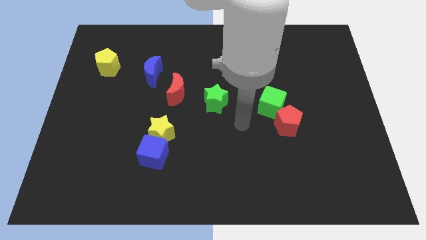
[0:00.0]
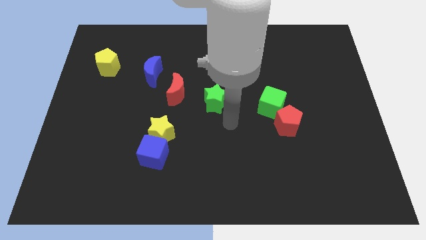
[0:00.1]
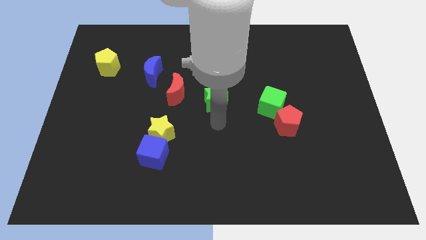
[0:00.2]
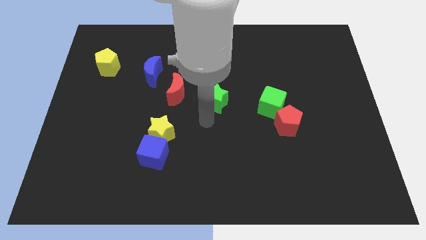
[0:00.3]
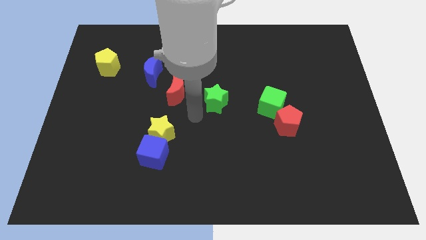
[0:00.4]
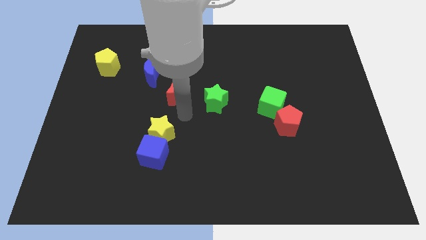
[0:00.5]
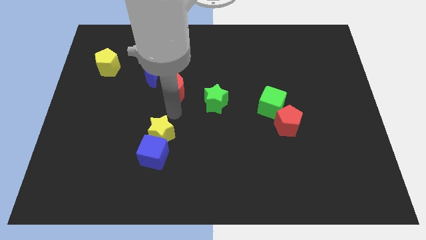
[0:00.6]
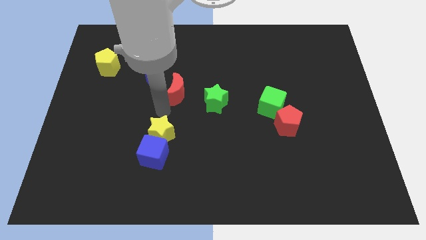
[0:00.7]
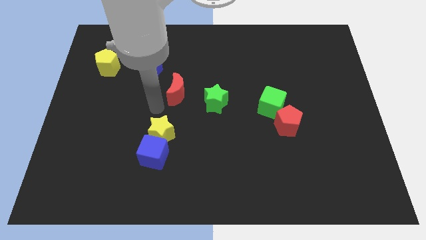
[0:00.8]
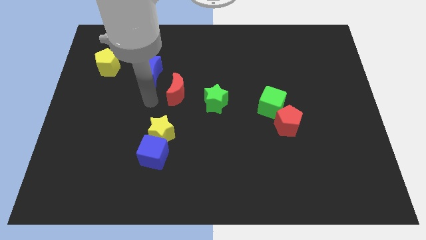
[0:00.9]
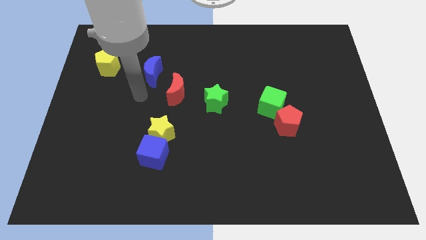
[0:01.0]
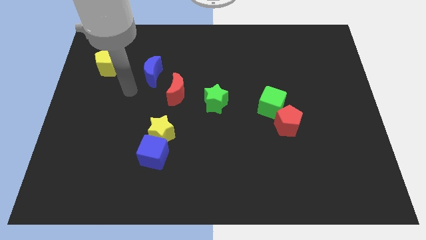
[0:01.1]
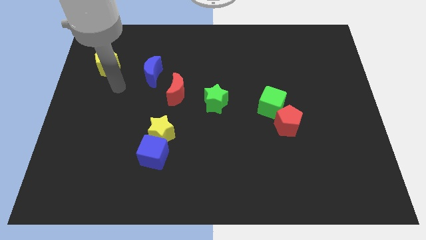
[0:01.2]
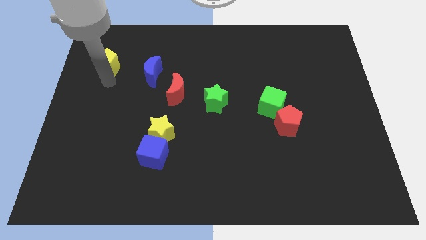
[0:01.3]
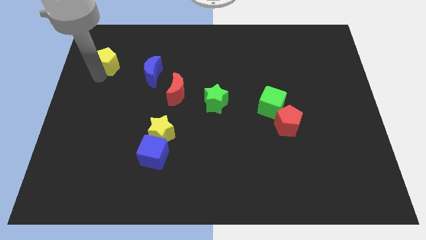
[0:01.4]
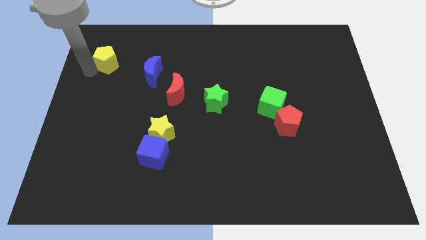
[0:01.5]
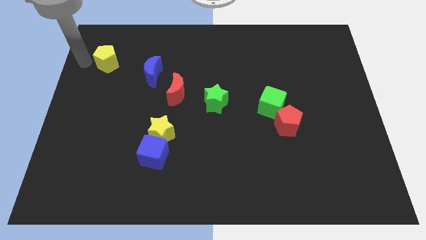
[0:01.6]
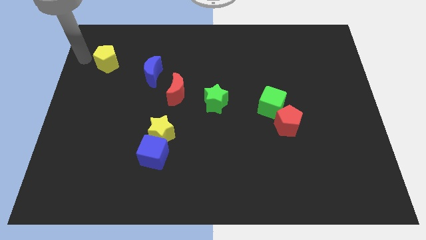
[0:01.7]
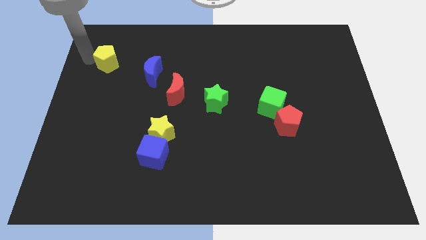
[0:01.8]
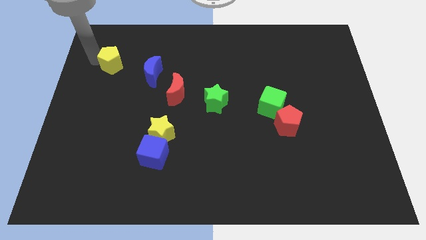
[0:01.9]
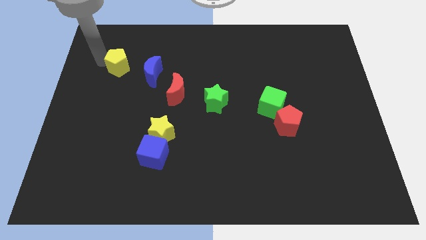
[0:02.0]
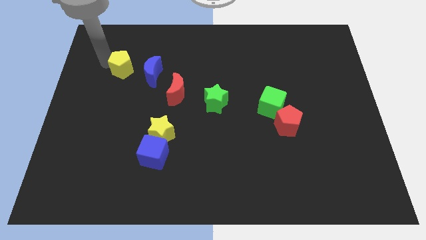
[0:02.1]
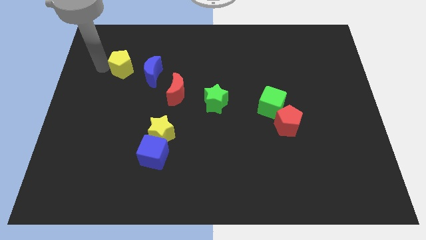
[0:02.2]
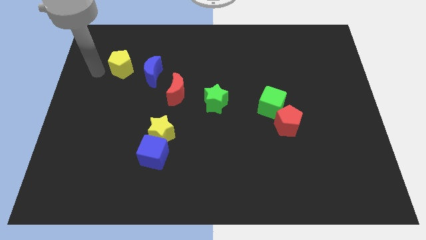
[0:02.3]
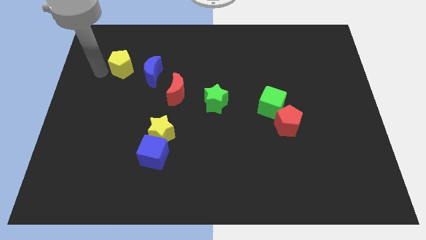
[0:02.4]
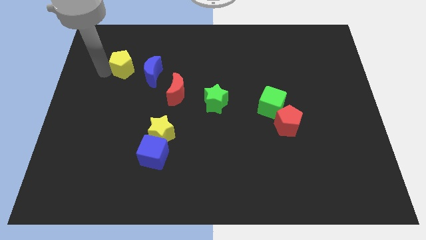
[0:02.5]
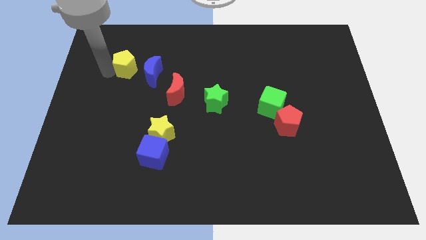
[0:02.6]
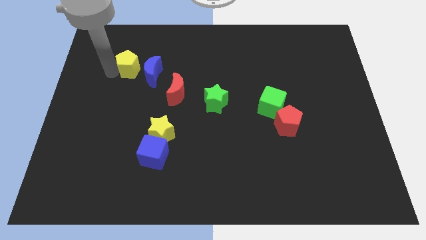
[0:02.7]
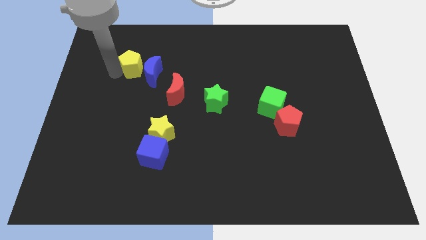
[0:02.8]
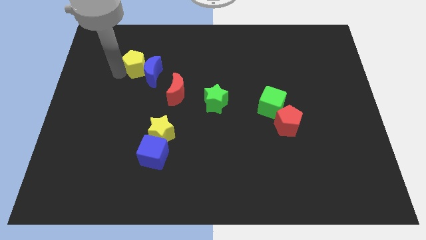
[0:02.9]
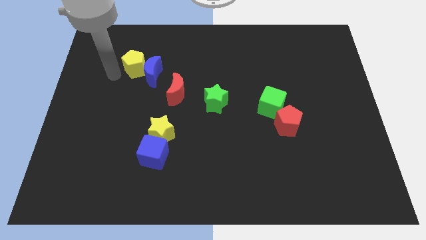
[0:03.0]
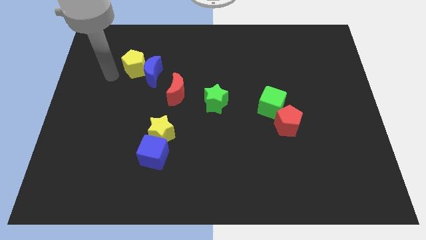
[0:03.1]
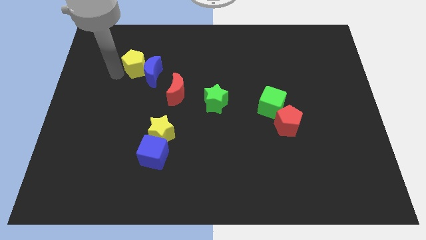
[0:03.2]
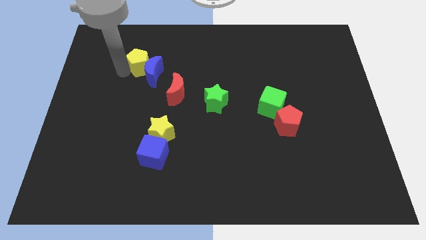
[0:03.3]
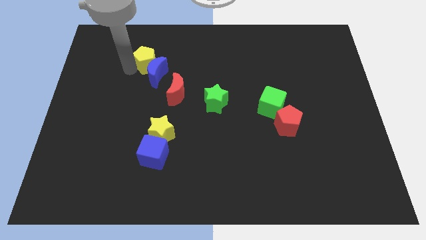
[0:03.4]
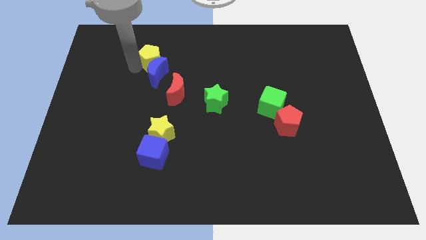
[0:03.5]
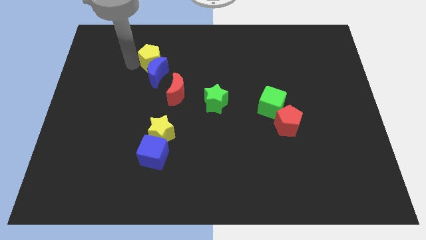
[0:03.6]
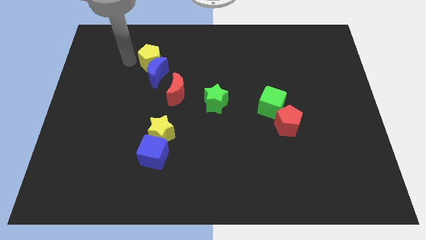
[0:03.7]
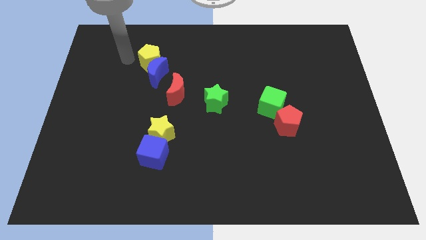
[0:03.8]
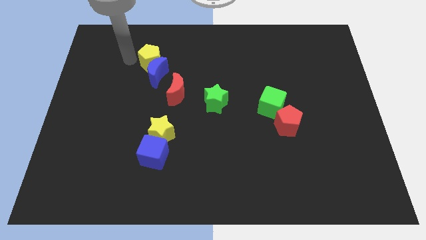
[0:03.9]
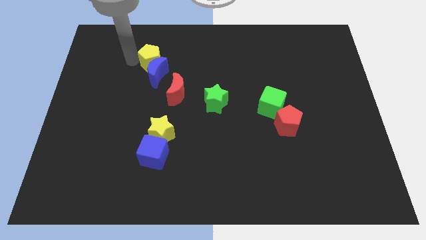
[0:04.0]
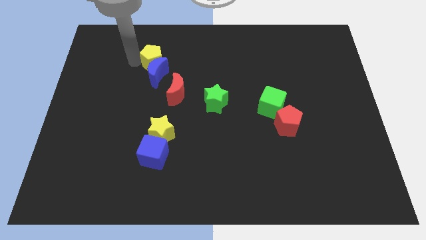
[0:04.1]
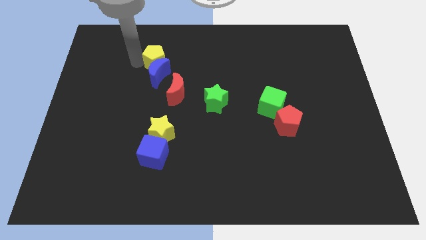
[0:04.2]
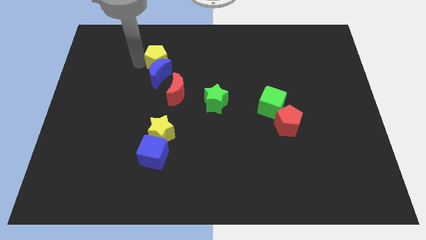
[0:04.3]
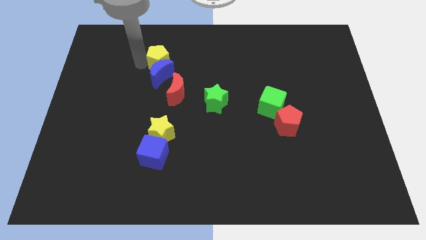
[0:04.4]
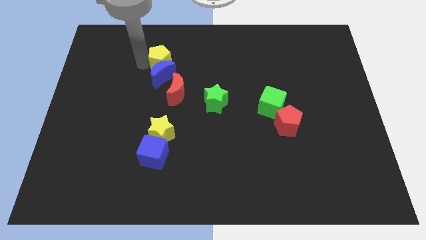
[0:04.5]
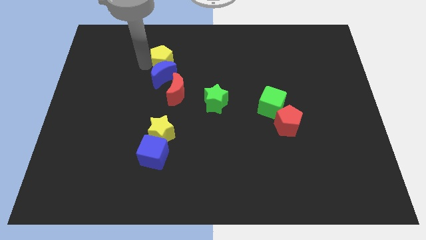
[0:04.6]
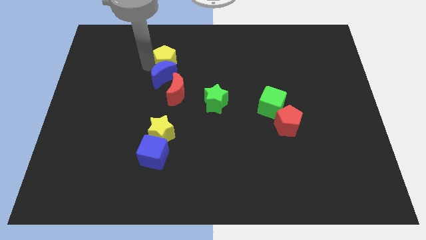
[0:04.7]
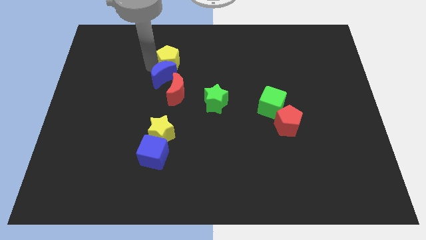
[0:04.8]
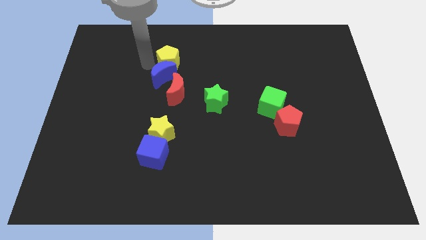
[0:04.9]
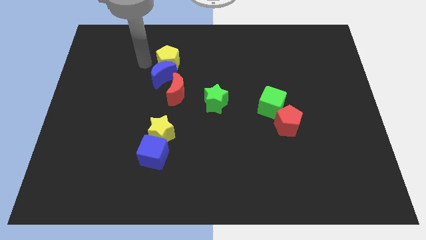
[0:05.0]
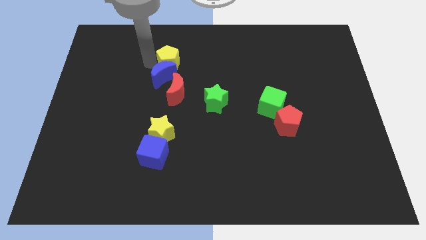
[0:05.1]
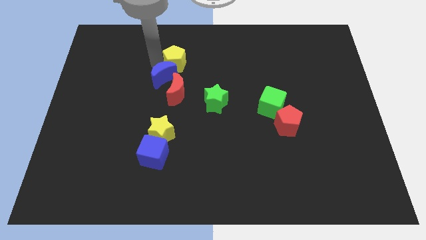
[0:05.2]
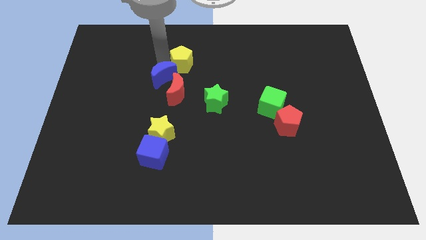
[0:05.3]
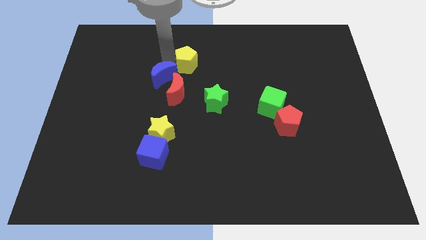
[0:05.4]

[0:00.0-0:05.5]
slide the yellow pentagon to the right

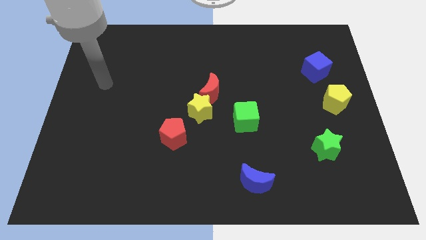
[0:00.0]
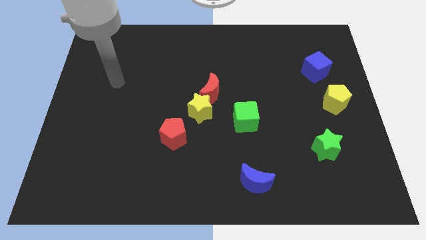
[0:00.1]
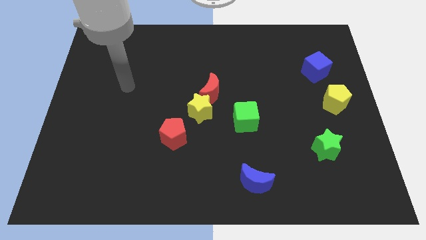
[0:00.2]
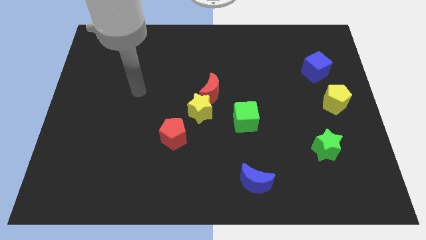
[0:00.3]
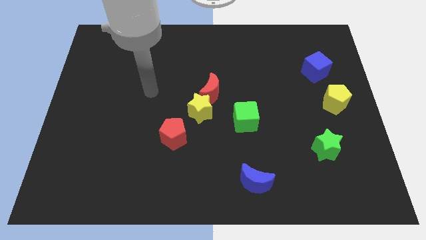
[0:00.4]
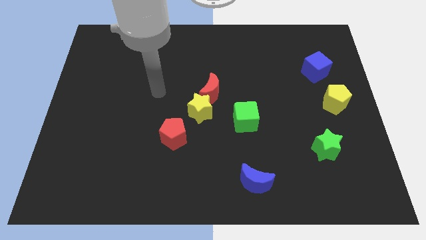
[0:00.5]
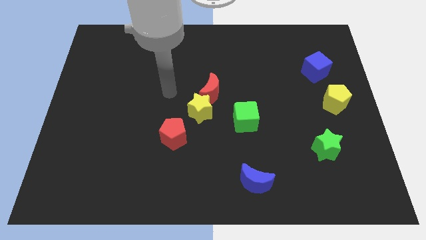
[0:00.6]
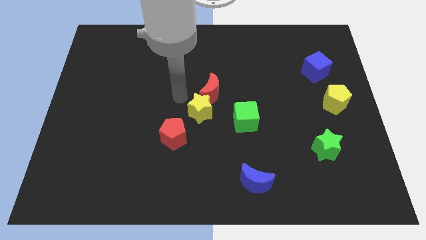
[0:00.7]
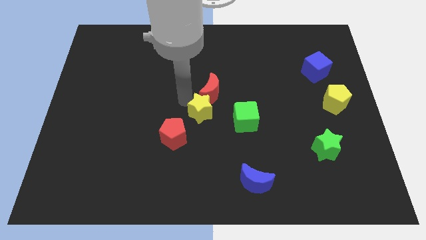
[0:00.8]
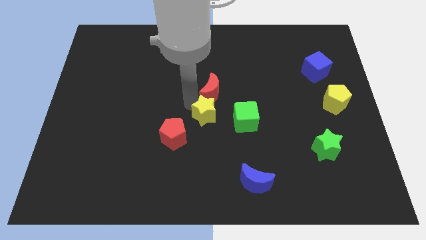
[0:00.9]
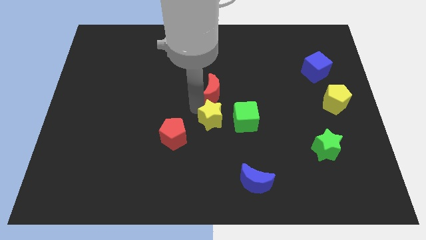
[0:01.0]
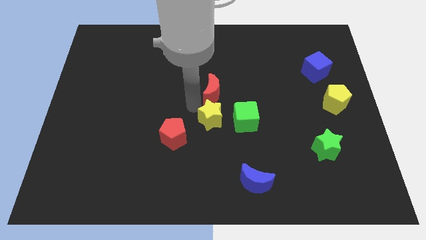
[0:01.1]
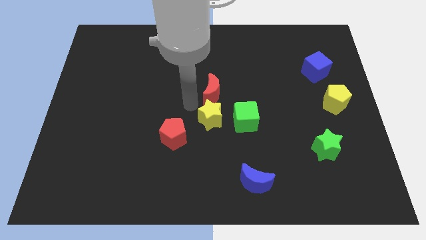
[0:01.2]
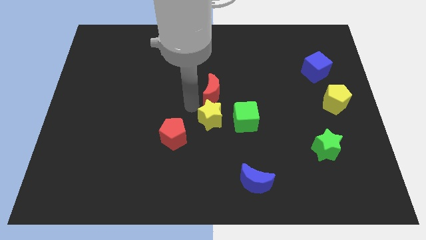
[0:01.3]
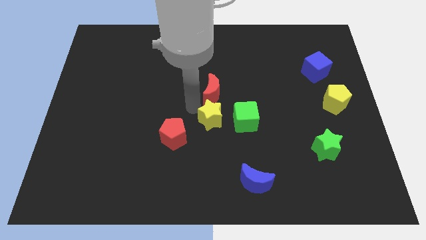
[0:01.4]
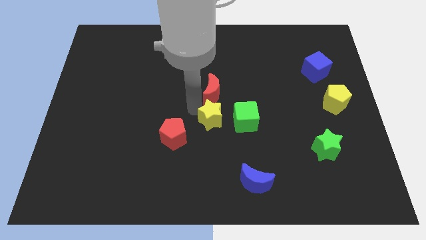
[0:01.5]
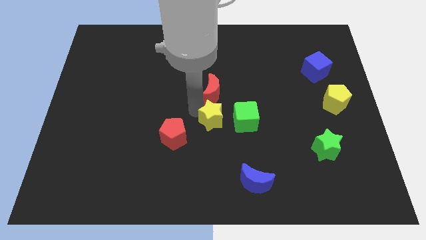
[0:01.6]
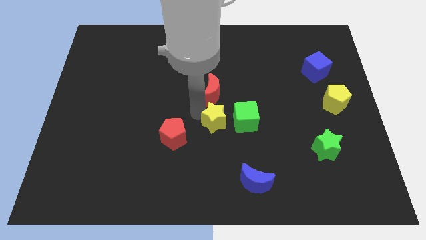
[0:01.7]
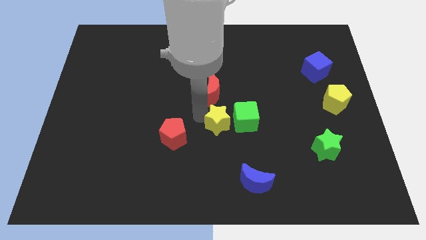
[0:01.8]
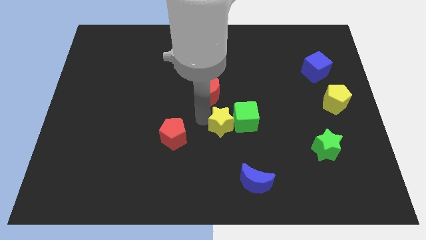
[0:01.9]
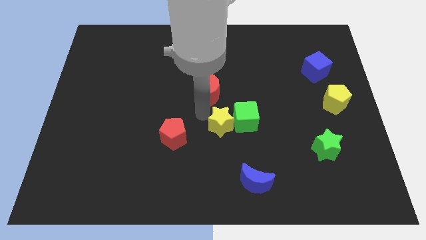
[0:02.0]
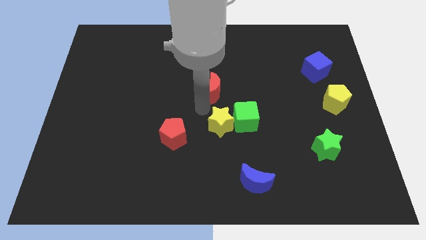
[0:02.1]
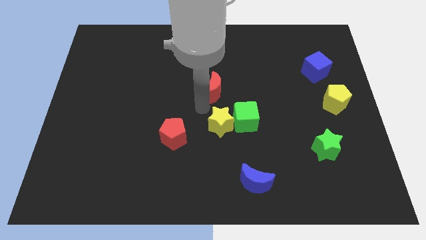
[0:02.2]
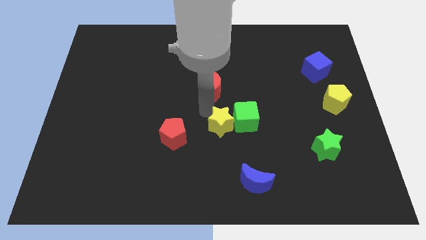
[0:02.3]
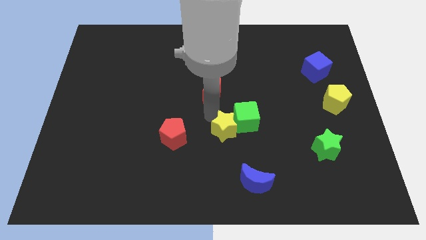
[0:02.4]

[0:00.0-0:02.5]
push the yellow star a little bit down and to the right diagonally
